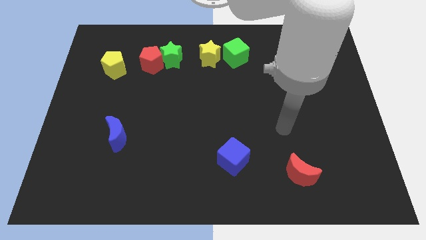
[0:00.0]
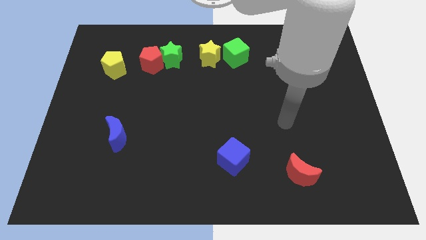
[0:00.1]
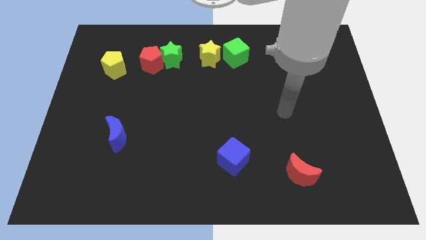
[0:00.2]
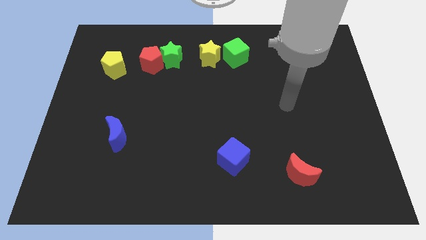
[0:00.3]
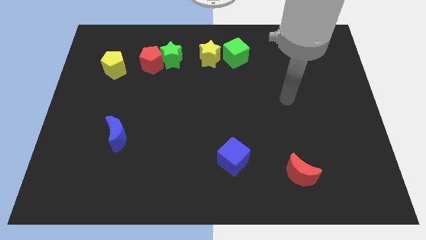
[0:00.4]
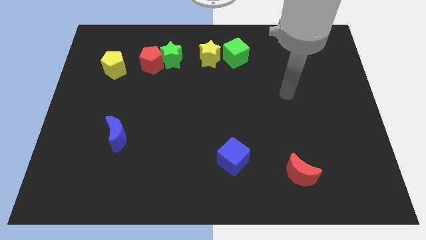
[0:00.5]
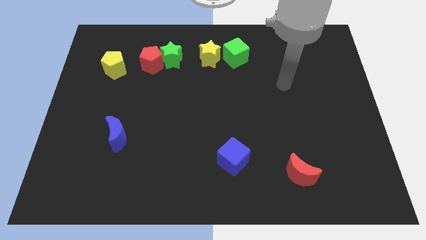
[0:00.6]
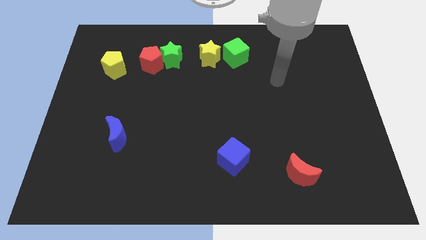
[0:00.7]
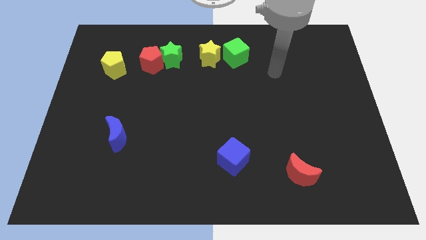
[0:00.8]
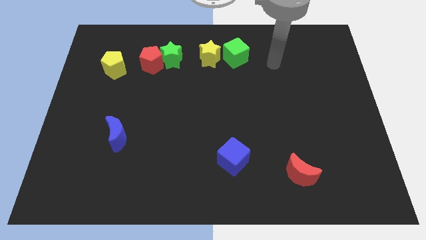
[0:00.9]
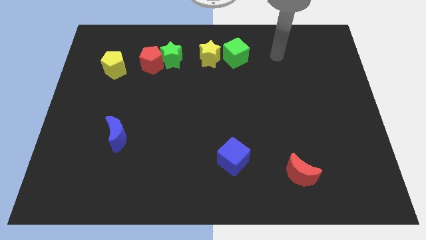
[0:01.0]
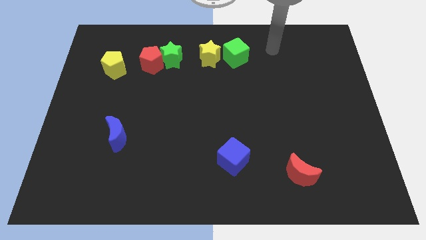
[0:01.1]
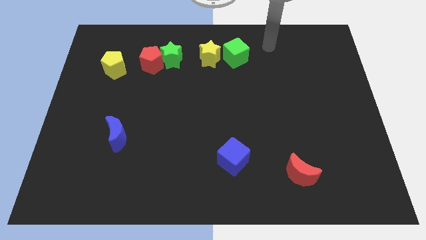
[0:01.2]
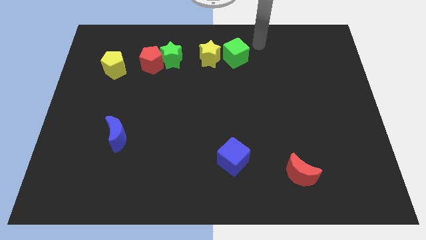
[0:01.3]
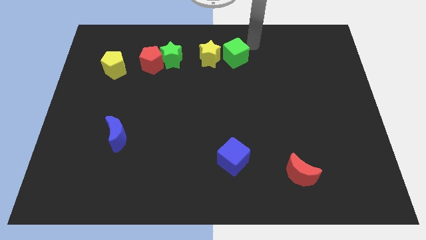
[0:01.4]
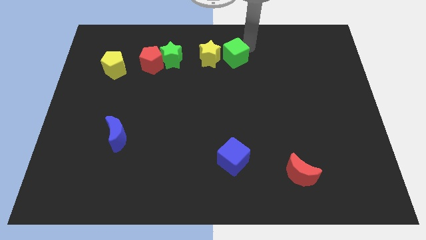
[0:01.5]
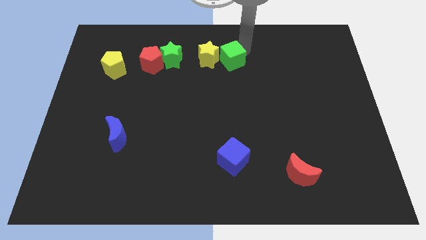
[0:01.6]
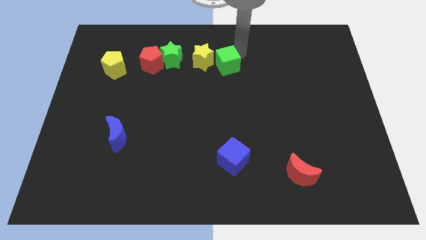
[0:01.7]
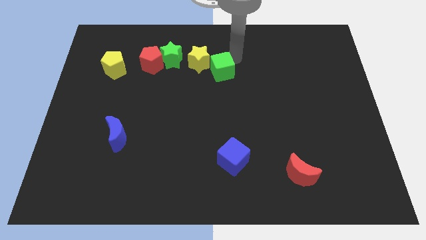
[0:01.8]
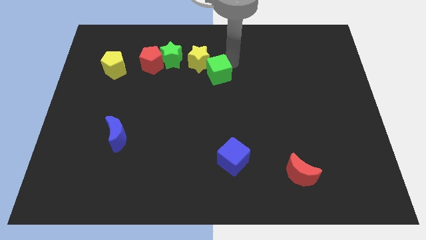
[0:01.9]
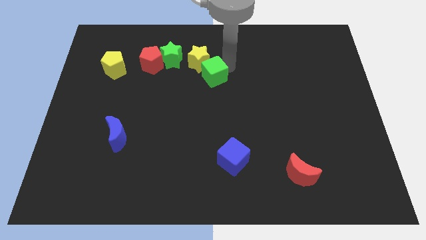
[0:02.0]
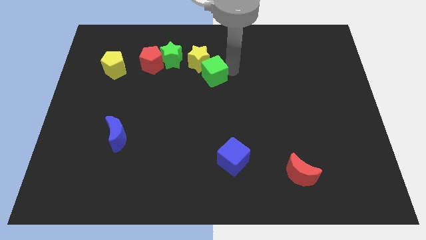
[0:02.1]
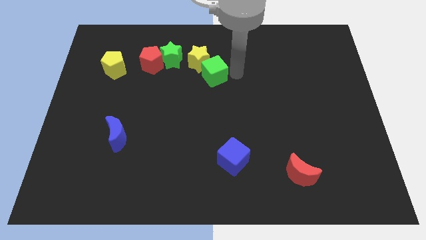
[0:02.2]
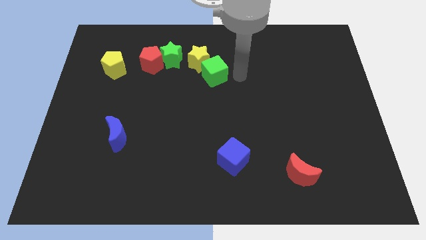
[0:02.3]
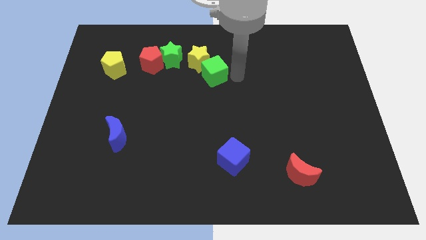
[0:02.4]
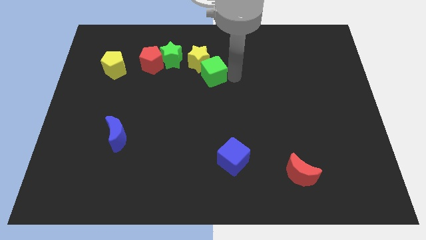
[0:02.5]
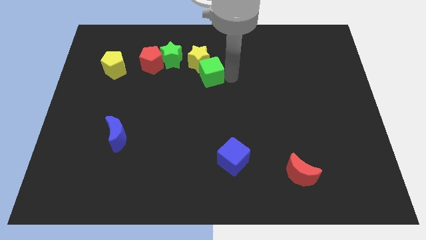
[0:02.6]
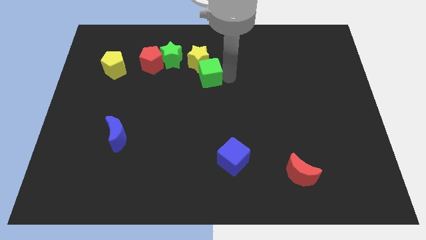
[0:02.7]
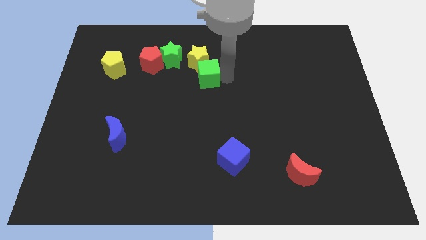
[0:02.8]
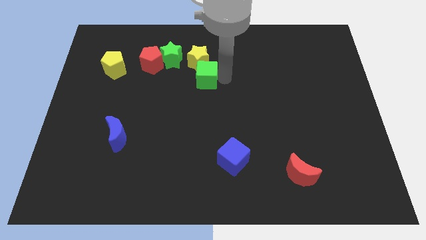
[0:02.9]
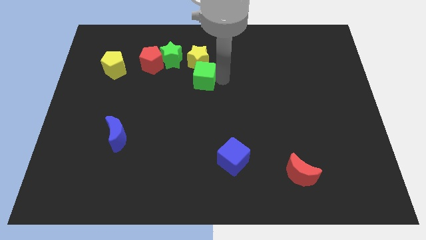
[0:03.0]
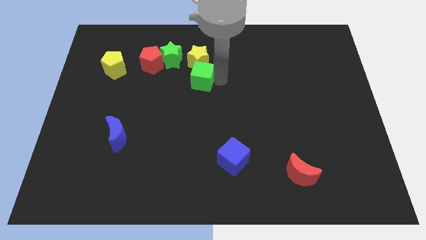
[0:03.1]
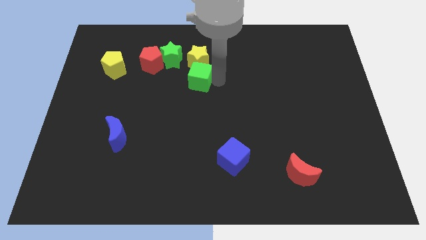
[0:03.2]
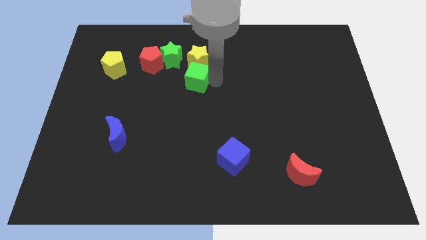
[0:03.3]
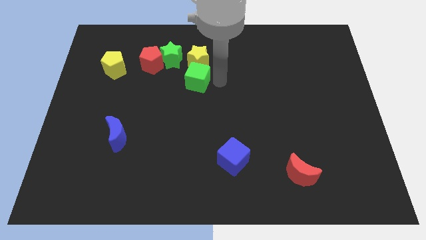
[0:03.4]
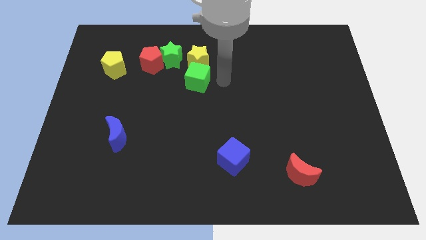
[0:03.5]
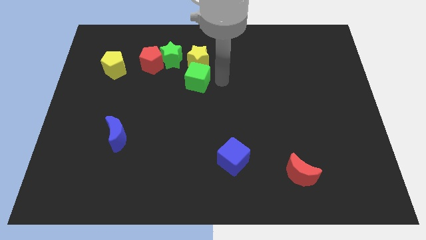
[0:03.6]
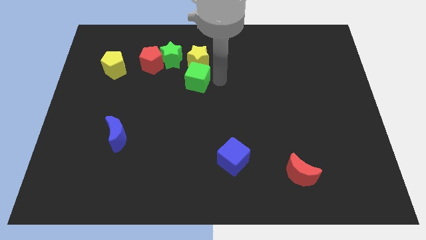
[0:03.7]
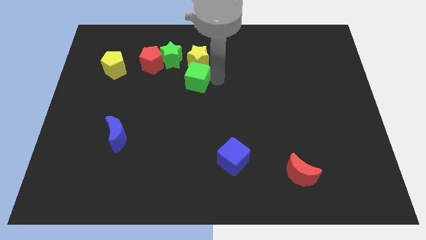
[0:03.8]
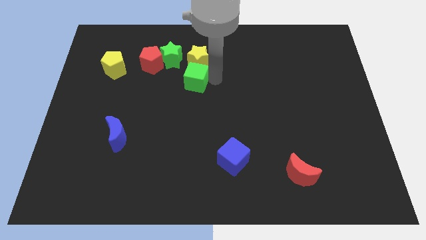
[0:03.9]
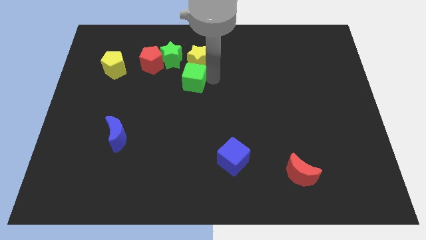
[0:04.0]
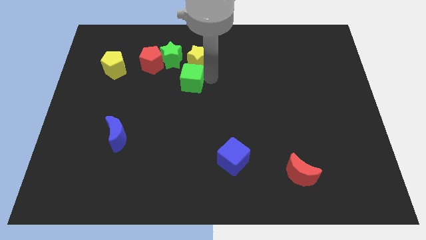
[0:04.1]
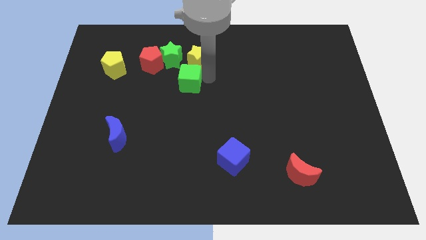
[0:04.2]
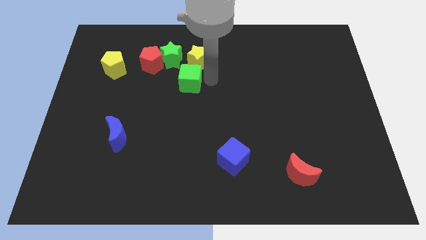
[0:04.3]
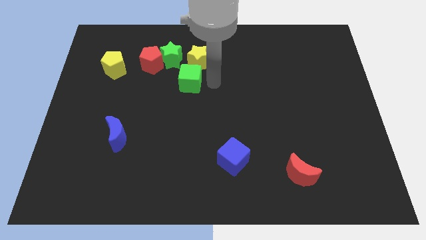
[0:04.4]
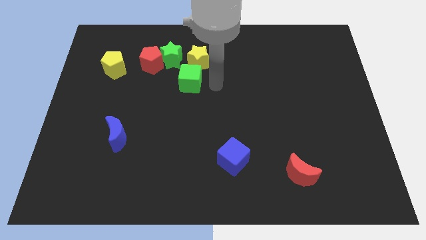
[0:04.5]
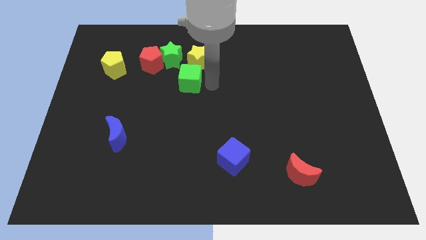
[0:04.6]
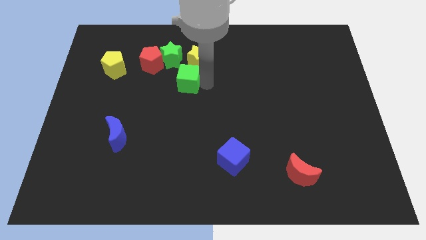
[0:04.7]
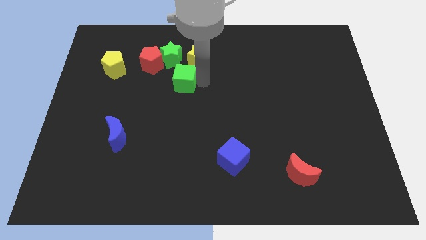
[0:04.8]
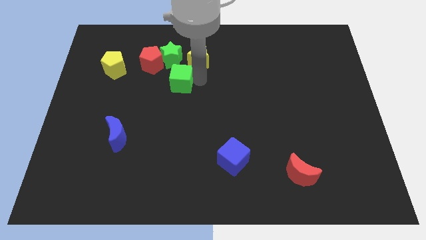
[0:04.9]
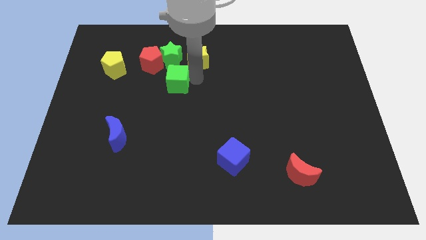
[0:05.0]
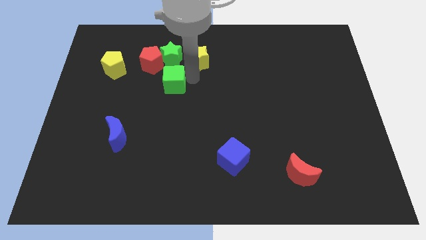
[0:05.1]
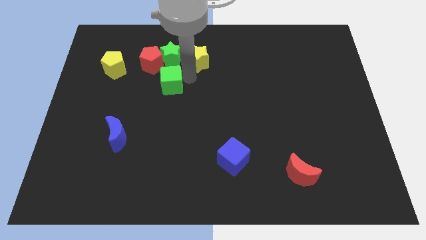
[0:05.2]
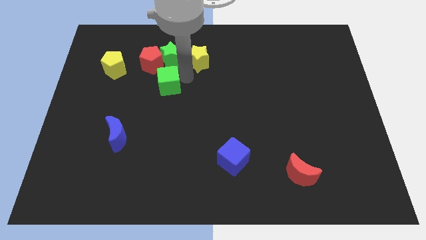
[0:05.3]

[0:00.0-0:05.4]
move the green cube below the red pentagon

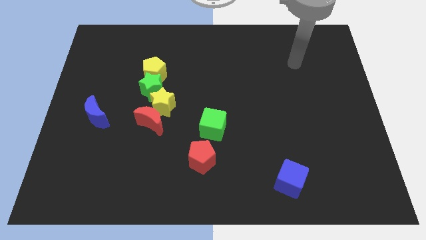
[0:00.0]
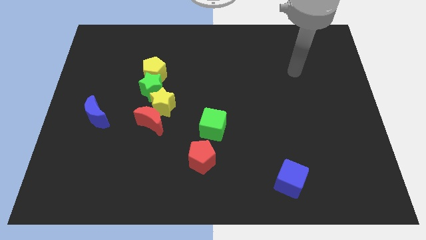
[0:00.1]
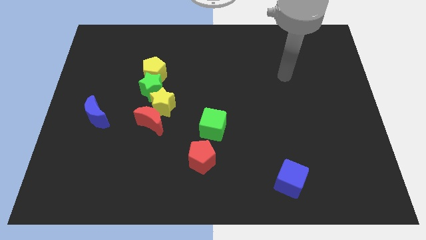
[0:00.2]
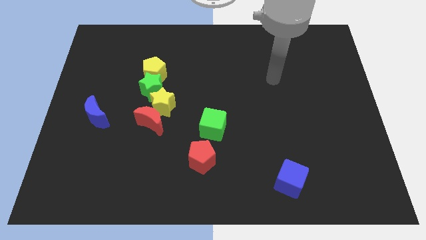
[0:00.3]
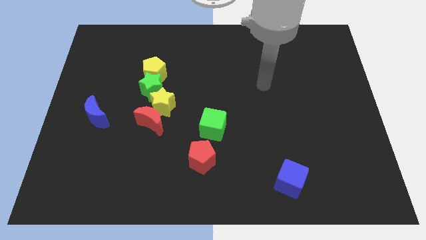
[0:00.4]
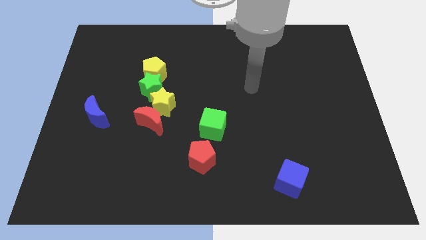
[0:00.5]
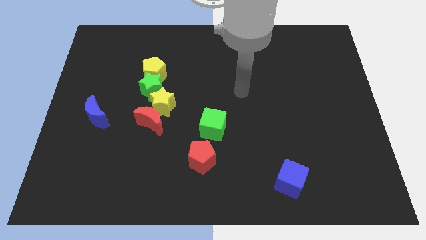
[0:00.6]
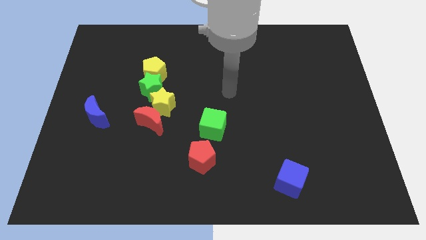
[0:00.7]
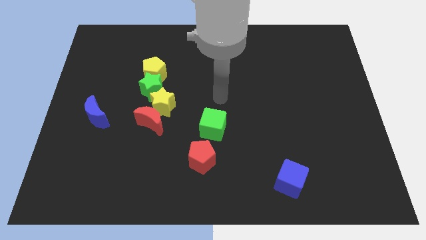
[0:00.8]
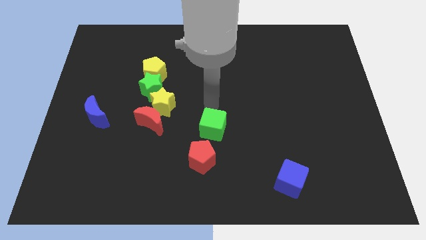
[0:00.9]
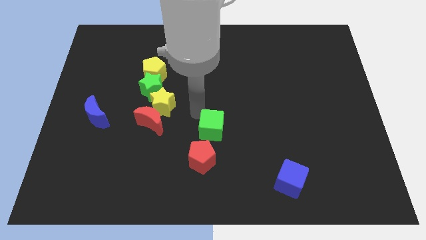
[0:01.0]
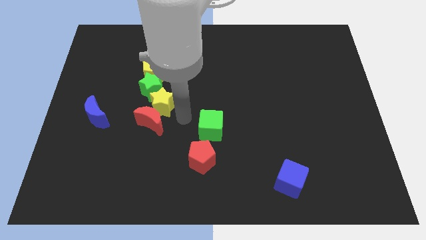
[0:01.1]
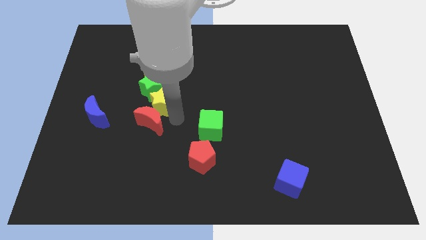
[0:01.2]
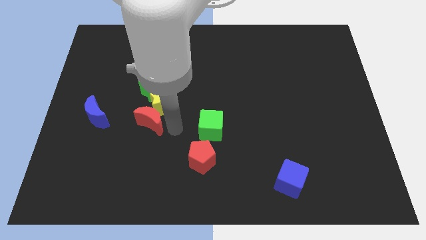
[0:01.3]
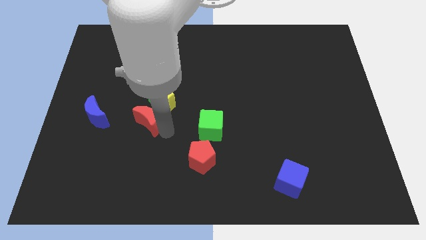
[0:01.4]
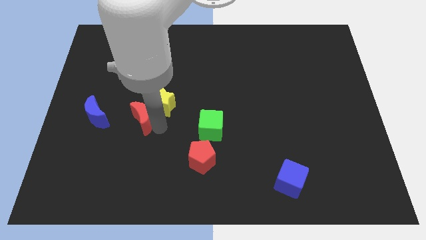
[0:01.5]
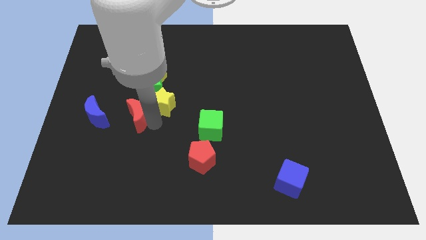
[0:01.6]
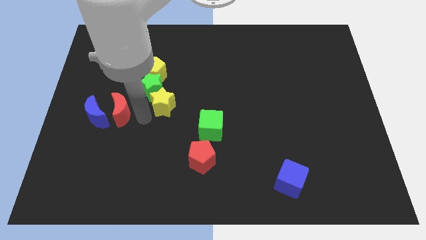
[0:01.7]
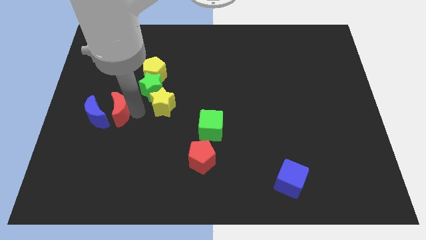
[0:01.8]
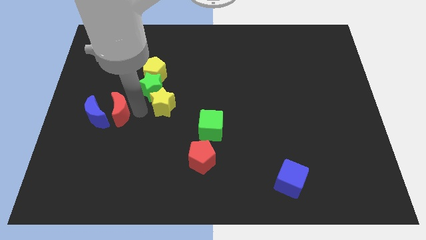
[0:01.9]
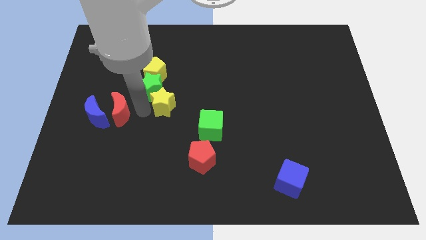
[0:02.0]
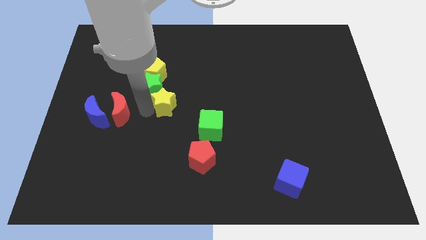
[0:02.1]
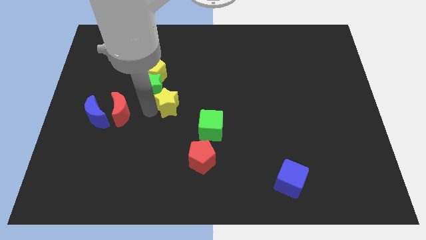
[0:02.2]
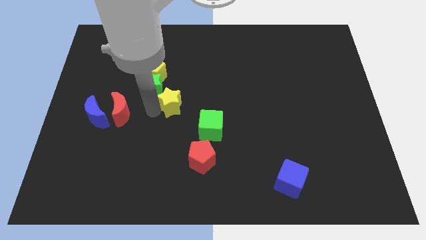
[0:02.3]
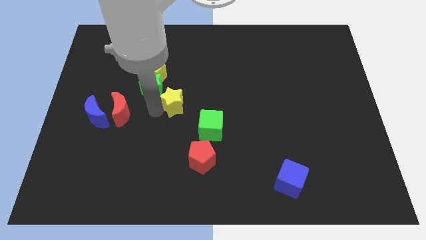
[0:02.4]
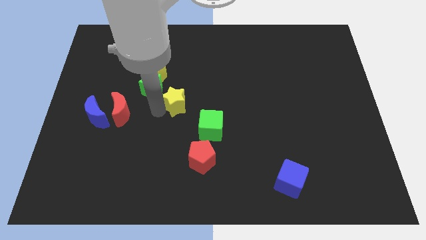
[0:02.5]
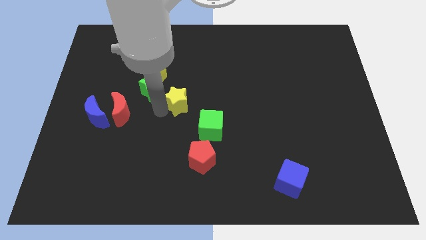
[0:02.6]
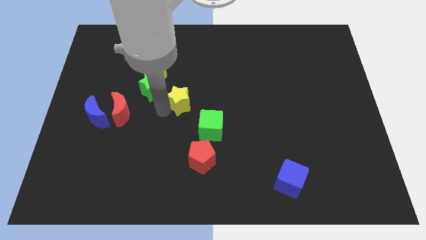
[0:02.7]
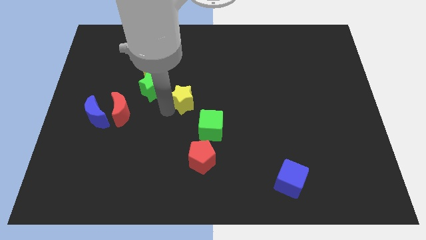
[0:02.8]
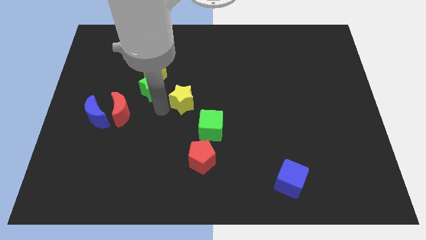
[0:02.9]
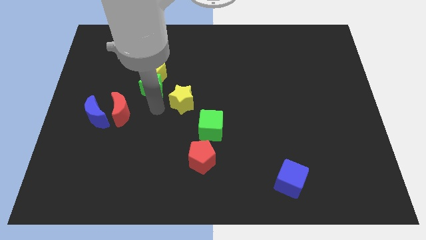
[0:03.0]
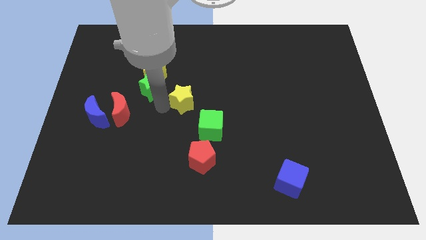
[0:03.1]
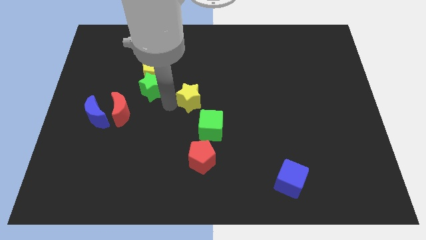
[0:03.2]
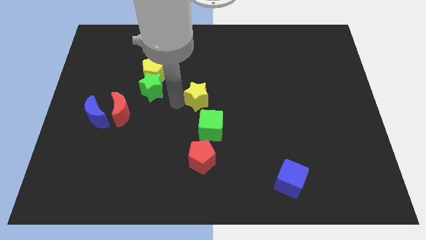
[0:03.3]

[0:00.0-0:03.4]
move the yellow star above the green cube
